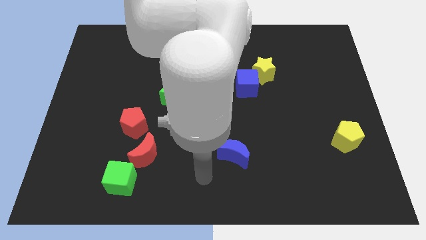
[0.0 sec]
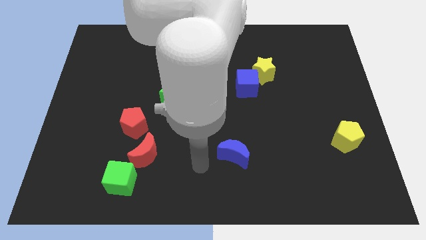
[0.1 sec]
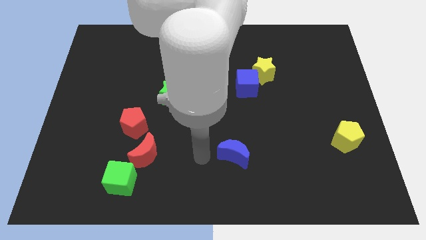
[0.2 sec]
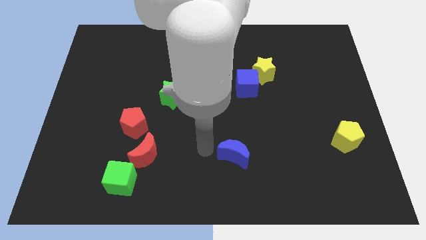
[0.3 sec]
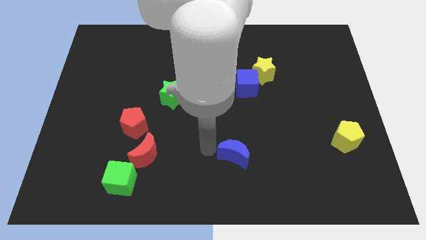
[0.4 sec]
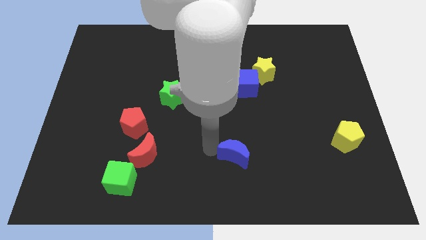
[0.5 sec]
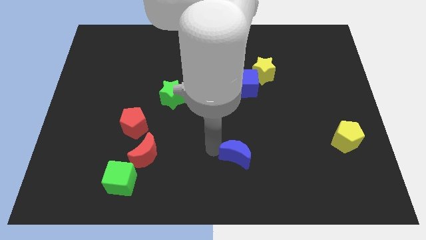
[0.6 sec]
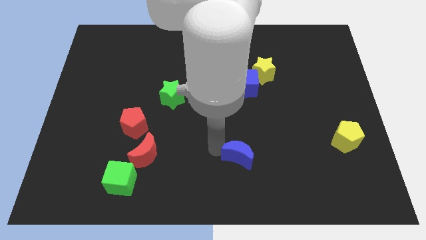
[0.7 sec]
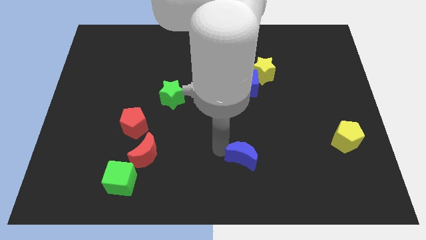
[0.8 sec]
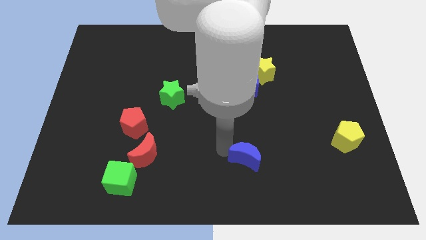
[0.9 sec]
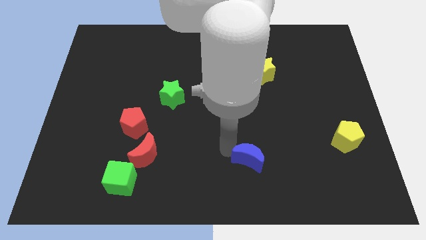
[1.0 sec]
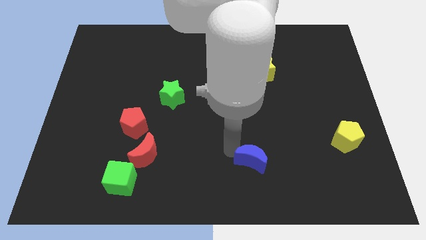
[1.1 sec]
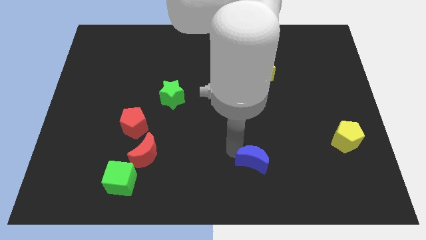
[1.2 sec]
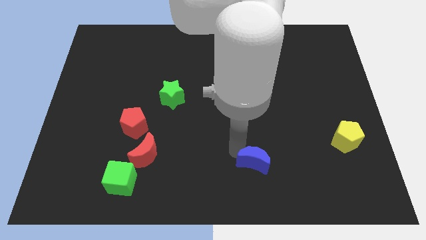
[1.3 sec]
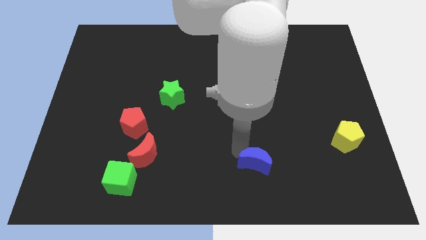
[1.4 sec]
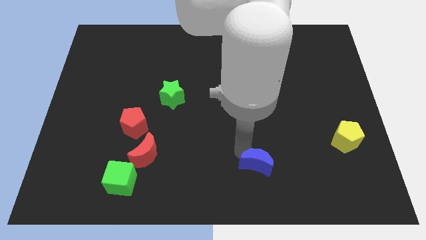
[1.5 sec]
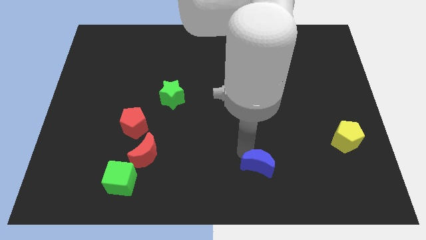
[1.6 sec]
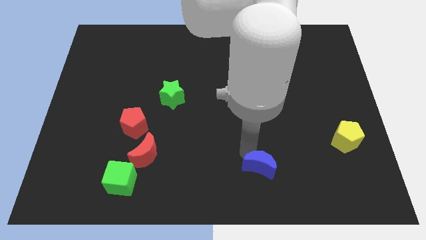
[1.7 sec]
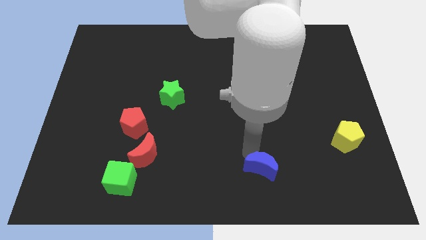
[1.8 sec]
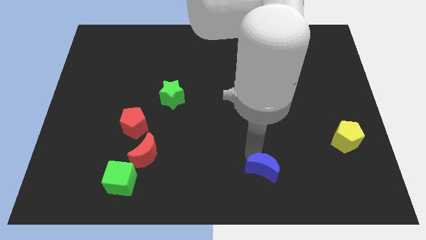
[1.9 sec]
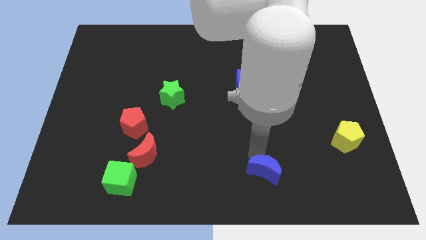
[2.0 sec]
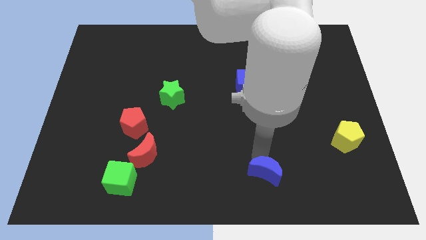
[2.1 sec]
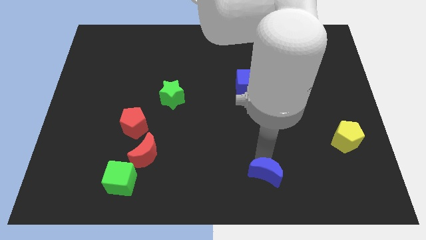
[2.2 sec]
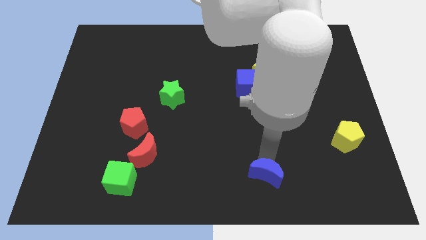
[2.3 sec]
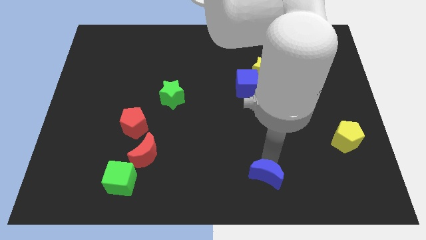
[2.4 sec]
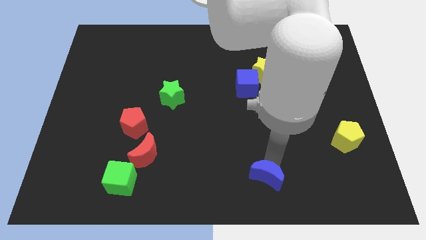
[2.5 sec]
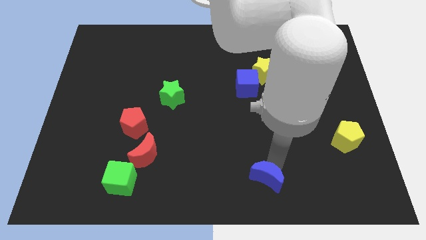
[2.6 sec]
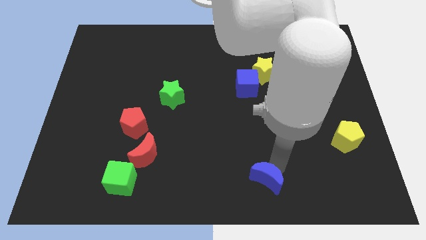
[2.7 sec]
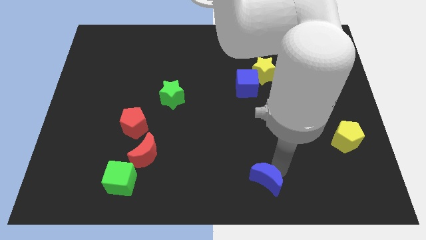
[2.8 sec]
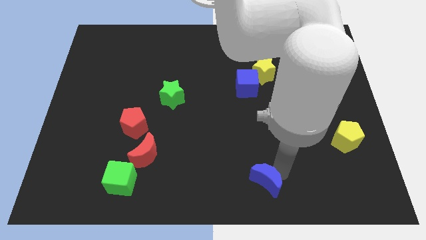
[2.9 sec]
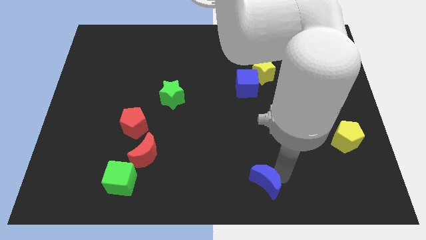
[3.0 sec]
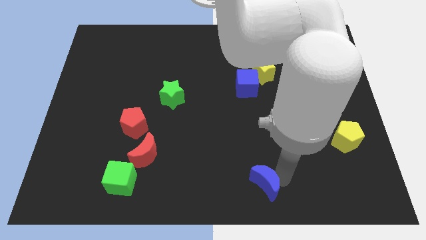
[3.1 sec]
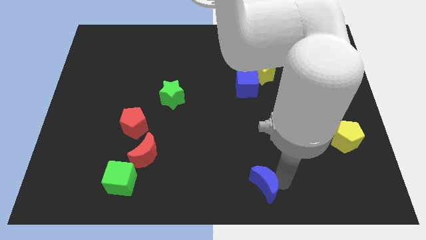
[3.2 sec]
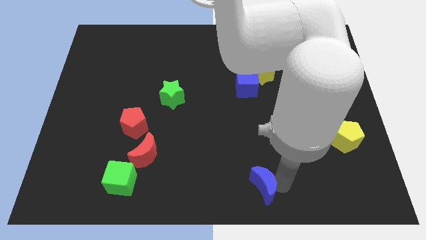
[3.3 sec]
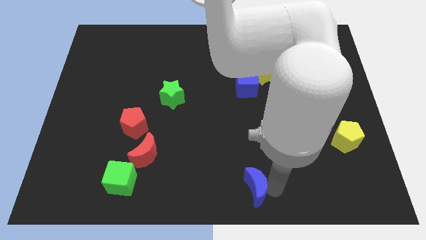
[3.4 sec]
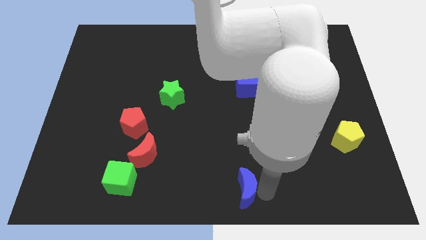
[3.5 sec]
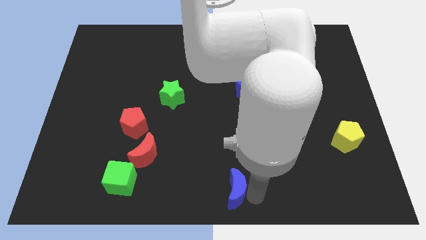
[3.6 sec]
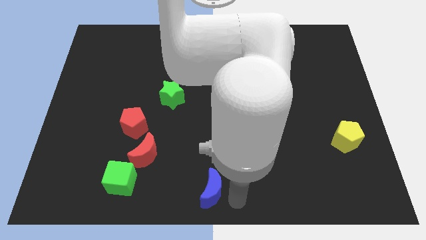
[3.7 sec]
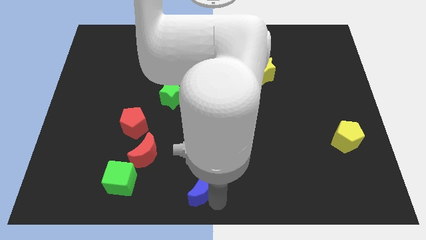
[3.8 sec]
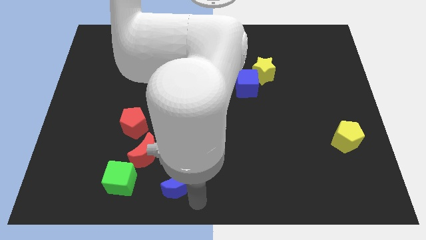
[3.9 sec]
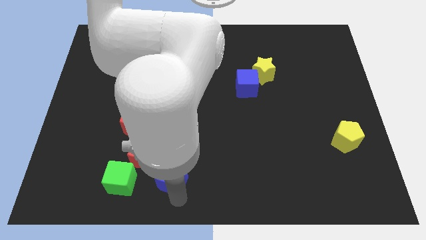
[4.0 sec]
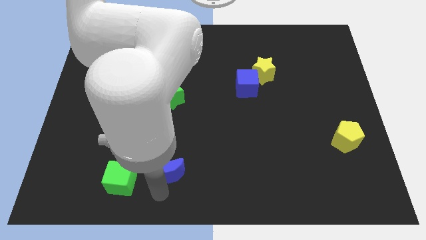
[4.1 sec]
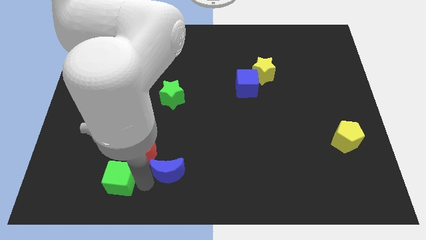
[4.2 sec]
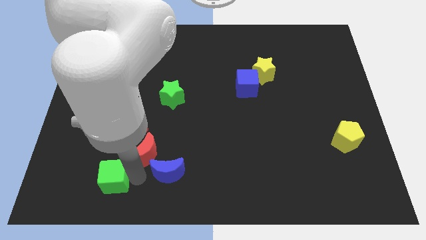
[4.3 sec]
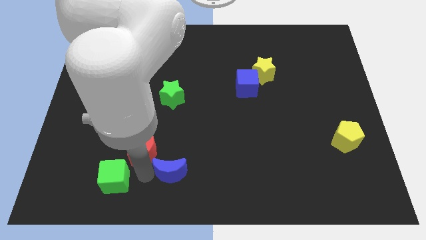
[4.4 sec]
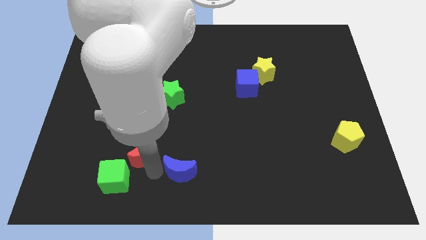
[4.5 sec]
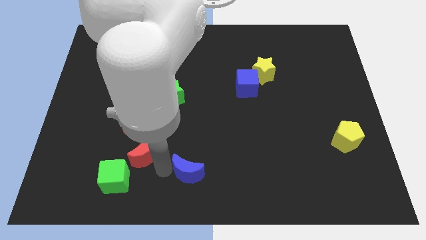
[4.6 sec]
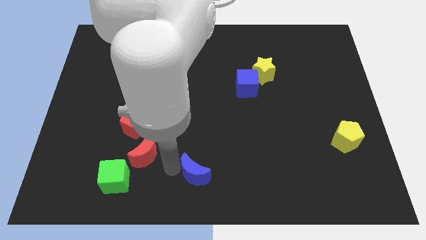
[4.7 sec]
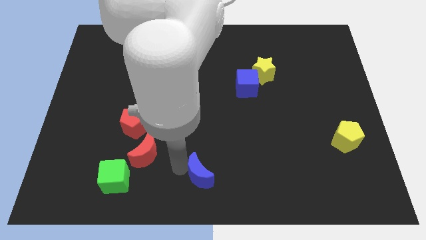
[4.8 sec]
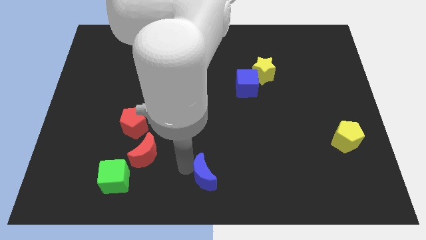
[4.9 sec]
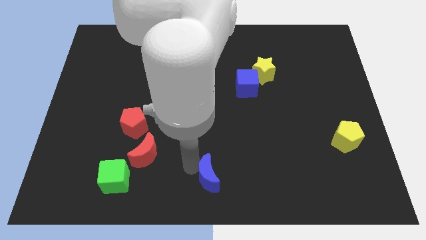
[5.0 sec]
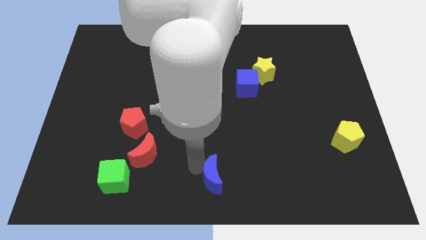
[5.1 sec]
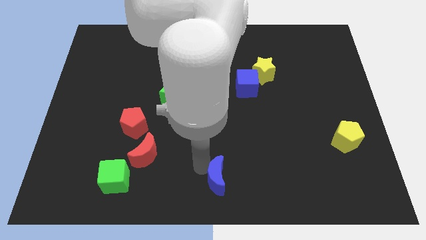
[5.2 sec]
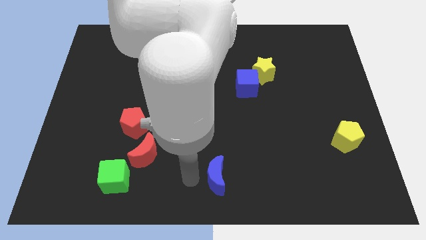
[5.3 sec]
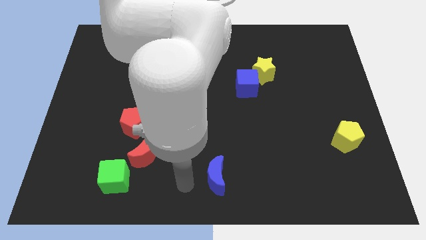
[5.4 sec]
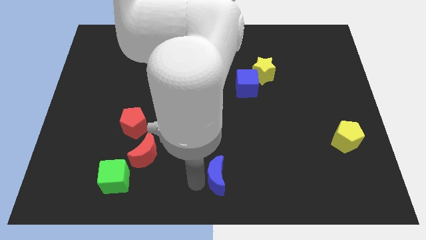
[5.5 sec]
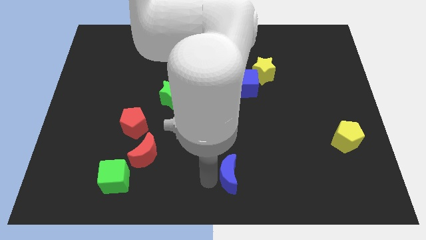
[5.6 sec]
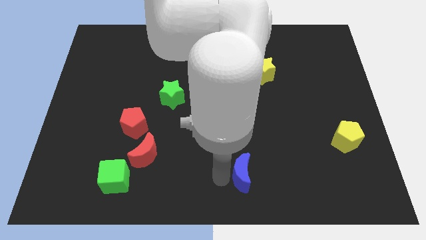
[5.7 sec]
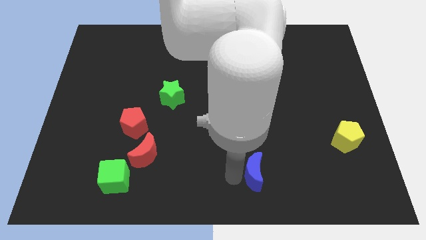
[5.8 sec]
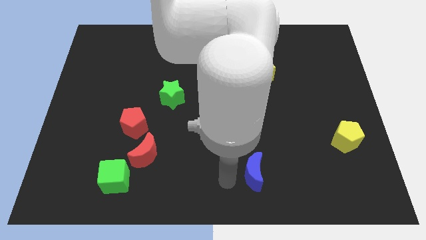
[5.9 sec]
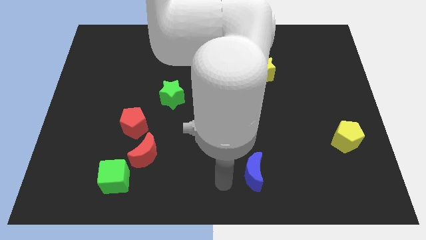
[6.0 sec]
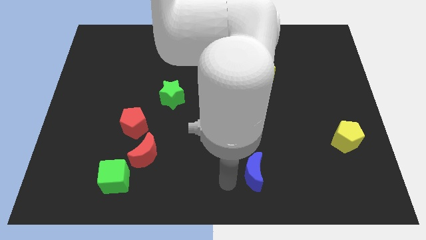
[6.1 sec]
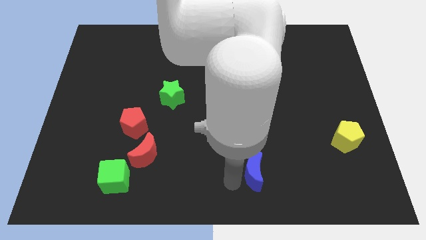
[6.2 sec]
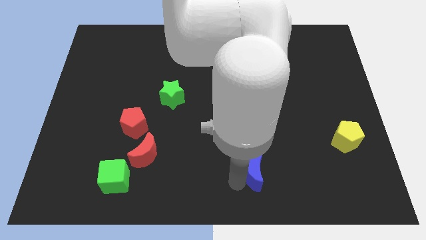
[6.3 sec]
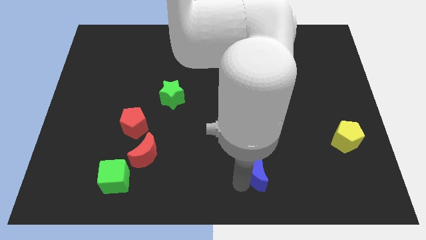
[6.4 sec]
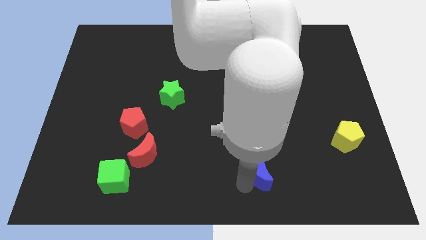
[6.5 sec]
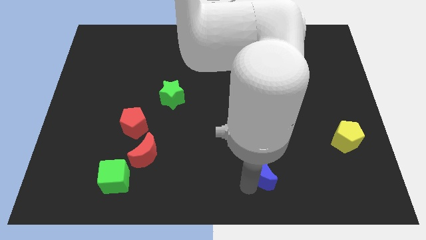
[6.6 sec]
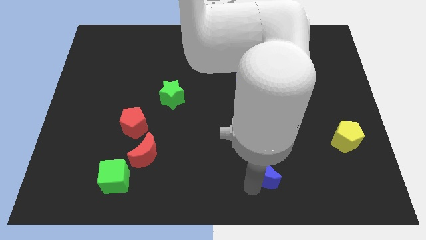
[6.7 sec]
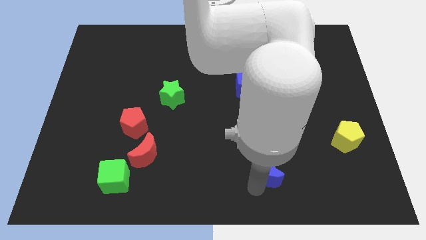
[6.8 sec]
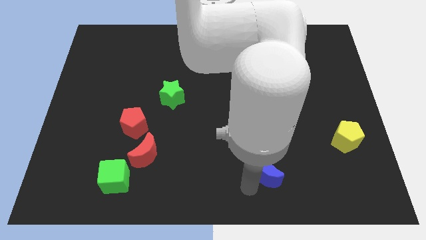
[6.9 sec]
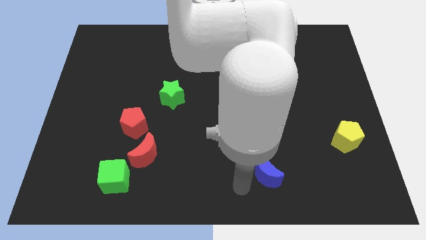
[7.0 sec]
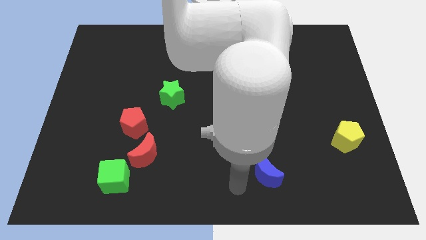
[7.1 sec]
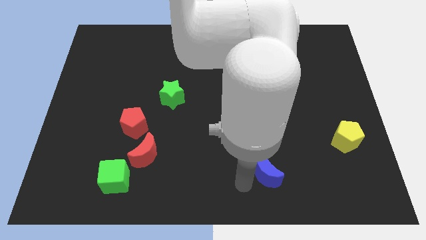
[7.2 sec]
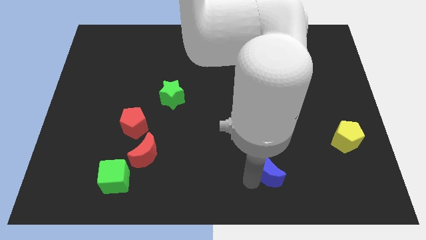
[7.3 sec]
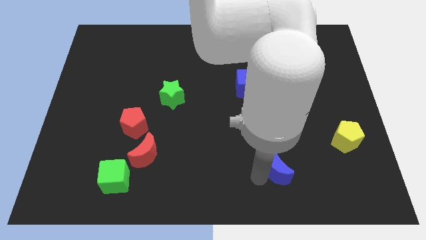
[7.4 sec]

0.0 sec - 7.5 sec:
move the blue moon to the right somewhat

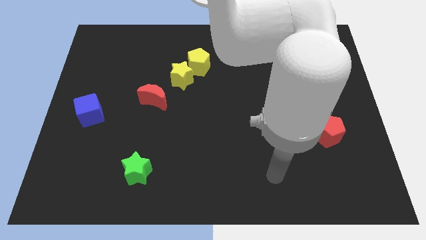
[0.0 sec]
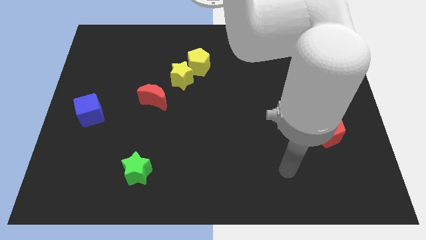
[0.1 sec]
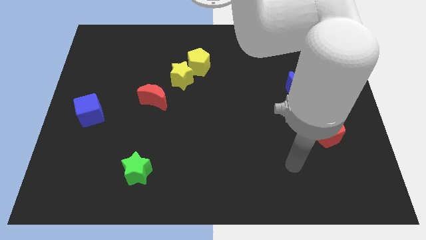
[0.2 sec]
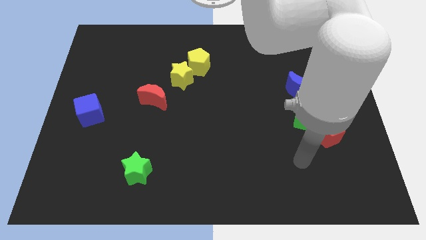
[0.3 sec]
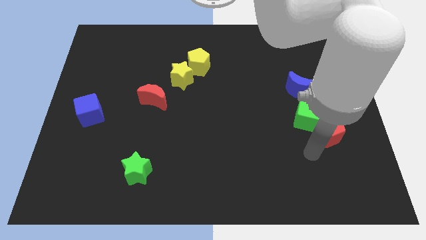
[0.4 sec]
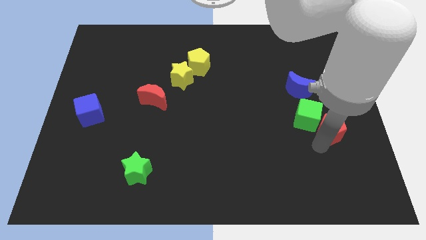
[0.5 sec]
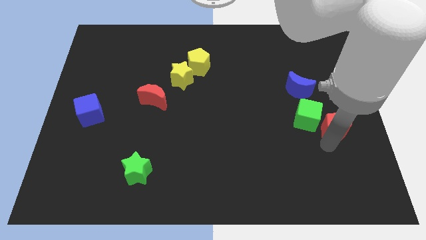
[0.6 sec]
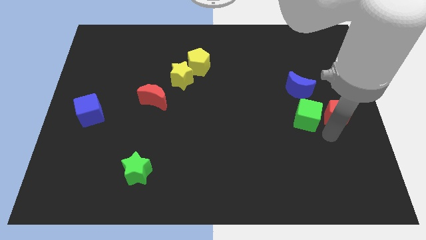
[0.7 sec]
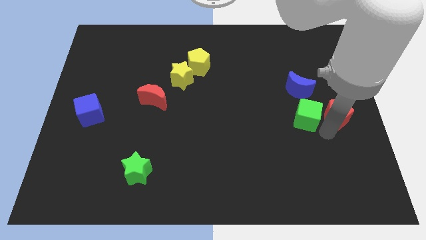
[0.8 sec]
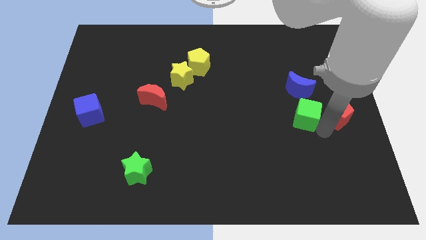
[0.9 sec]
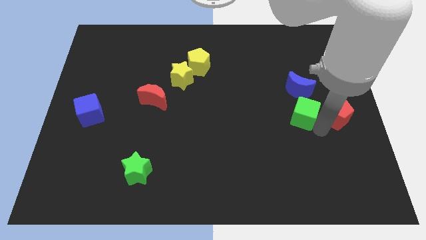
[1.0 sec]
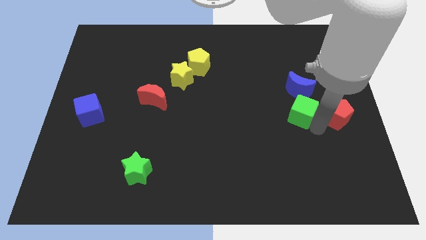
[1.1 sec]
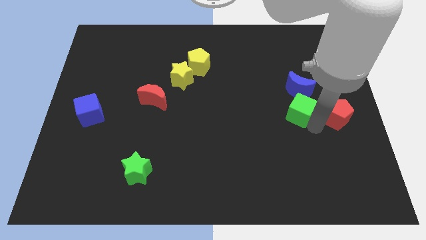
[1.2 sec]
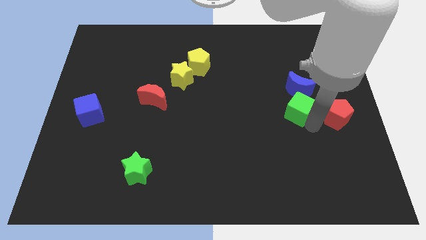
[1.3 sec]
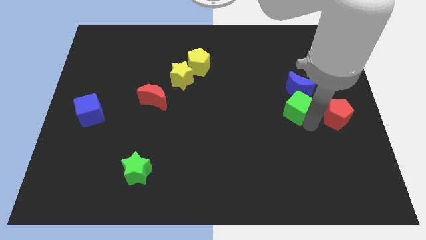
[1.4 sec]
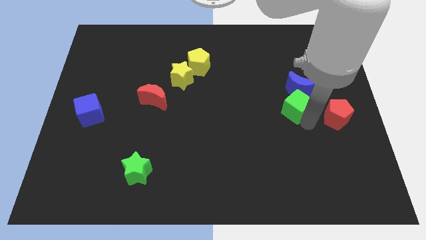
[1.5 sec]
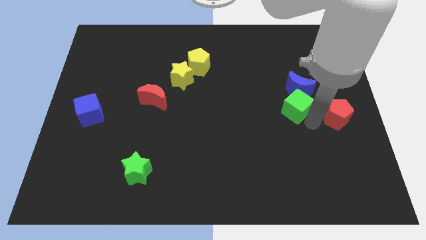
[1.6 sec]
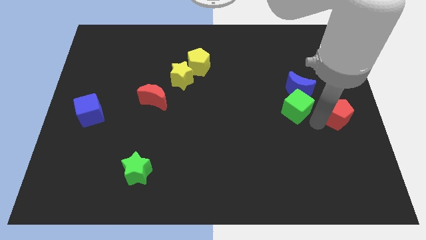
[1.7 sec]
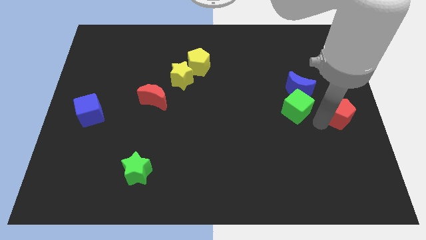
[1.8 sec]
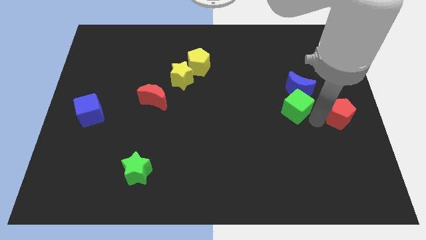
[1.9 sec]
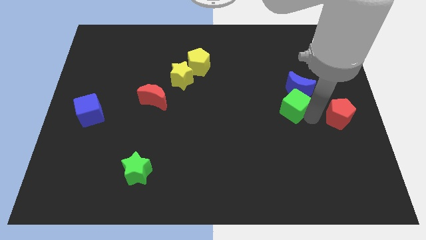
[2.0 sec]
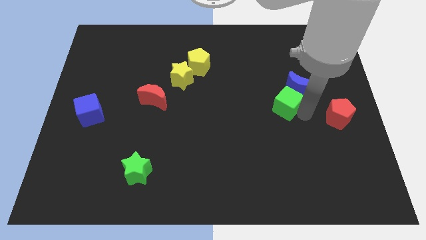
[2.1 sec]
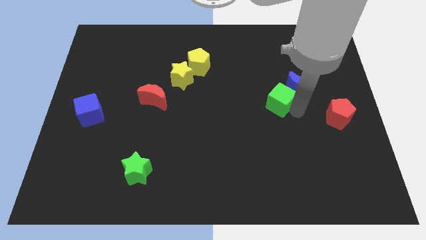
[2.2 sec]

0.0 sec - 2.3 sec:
slide the green cube slightly upwards and then left
